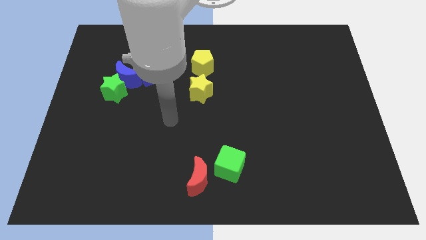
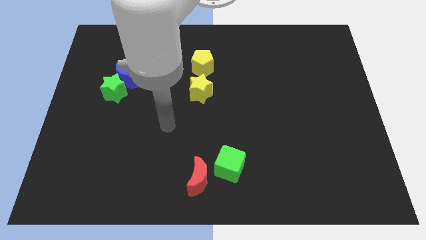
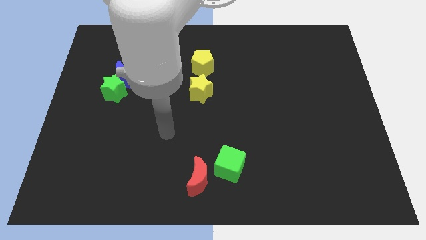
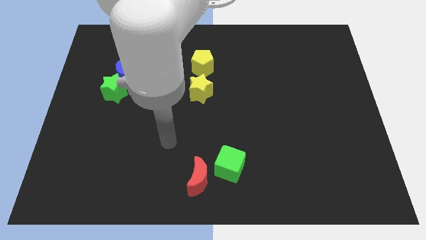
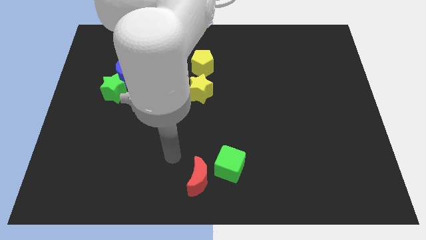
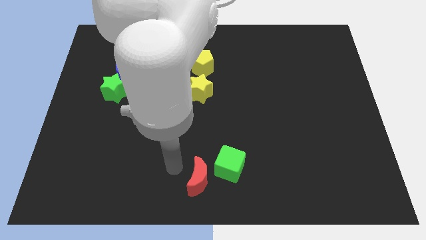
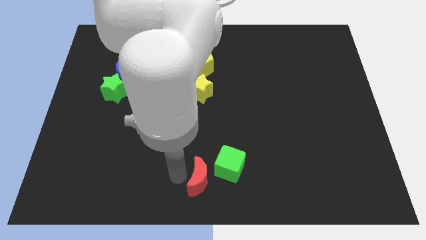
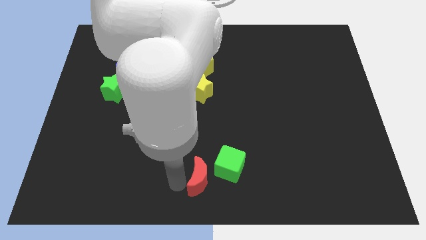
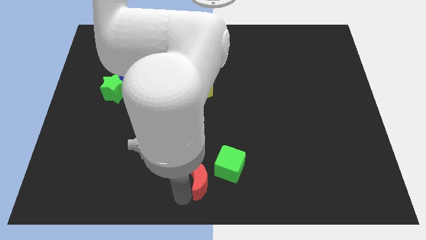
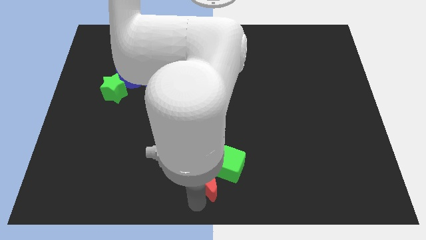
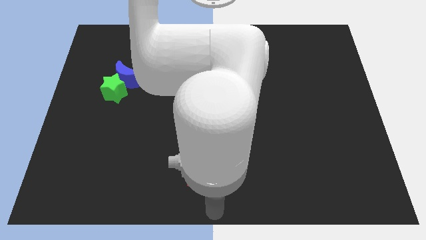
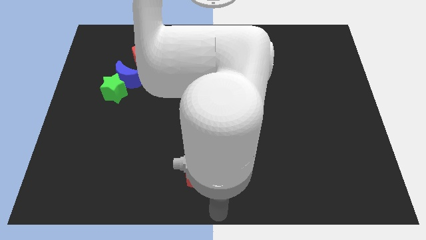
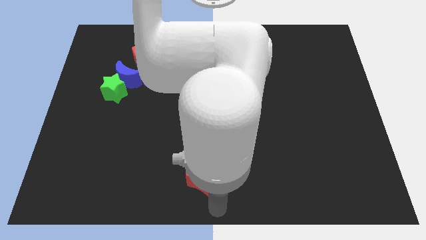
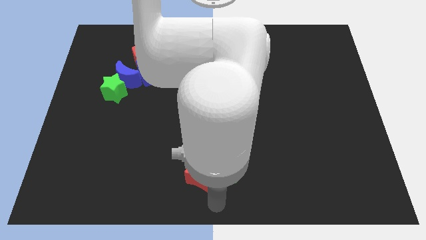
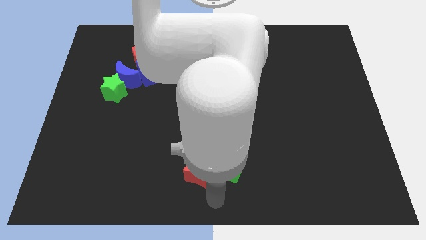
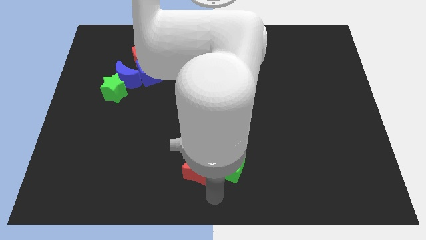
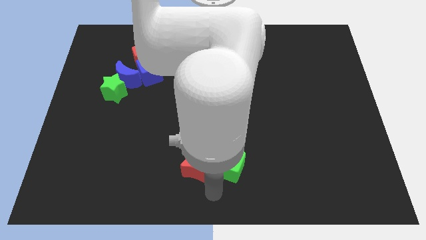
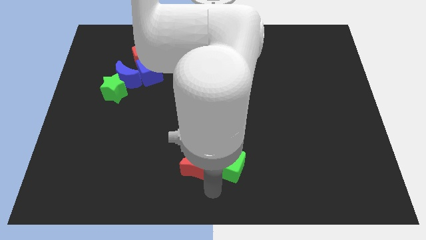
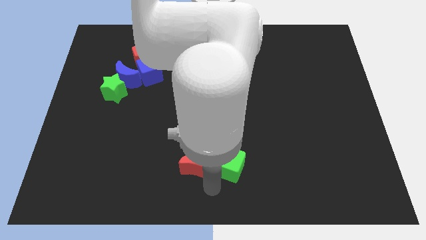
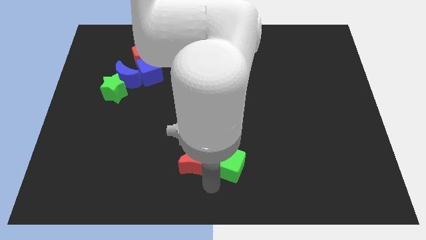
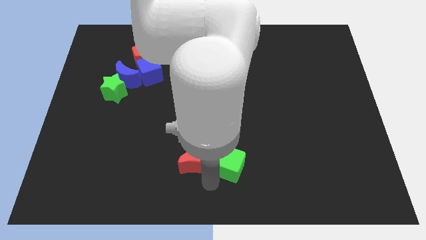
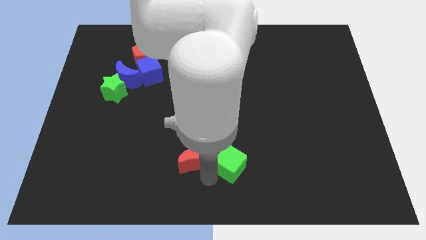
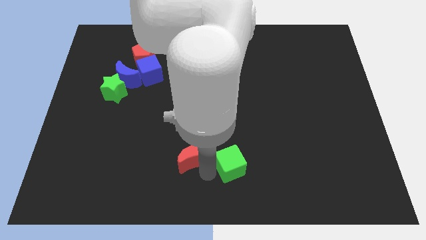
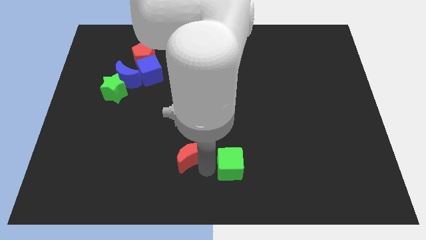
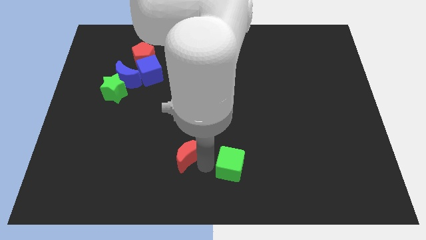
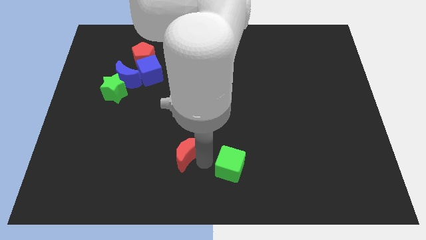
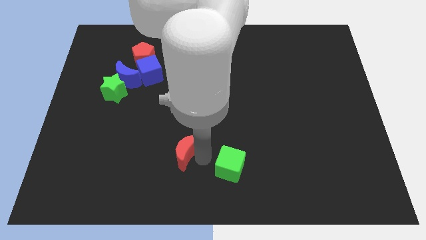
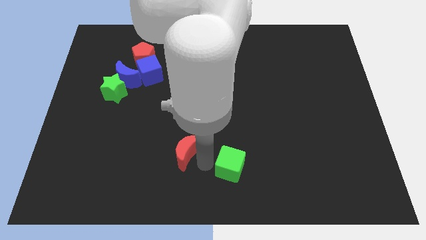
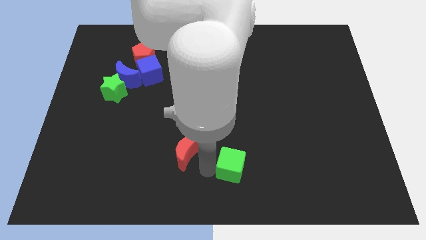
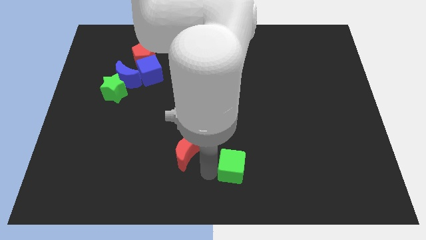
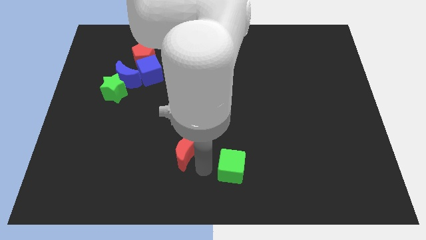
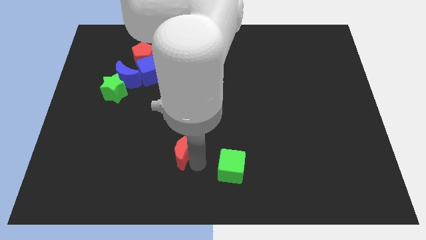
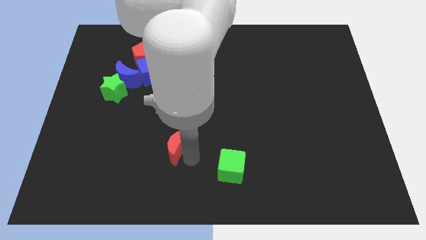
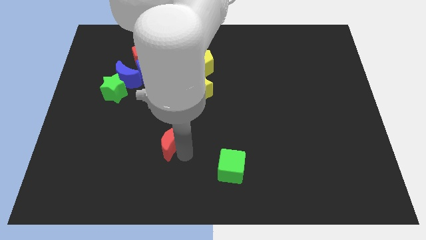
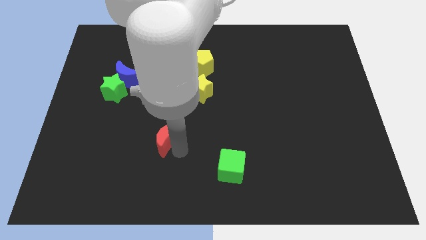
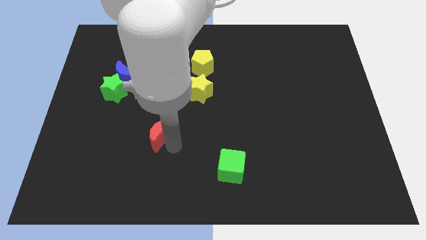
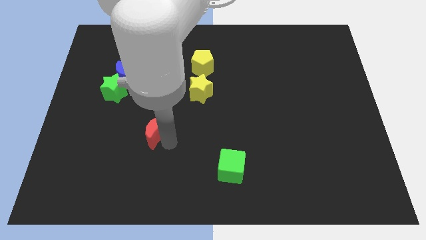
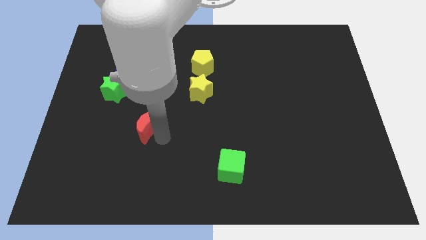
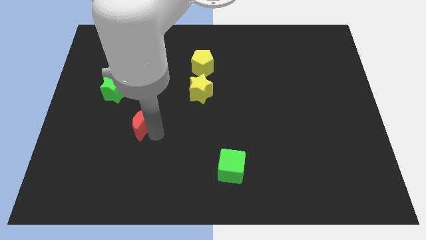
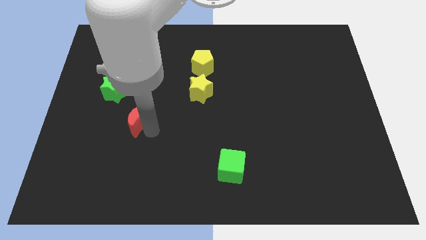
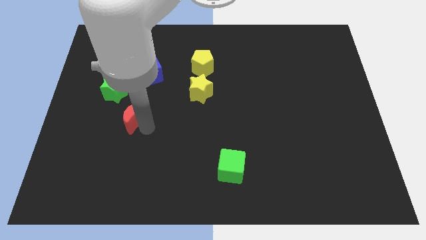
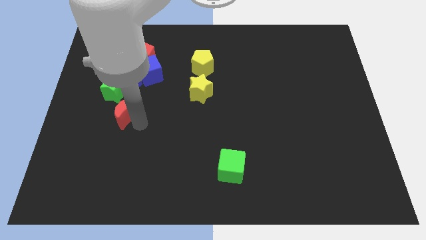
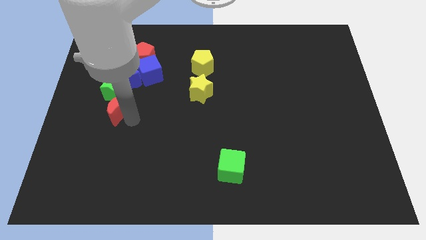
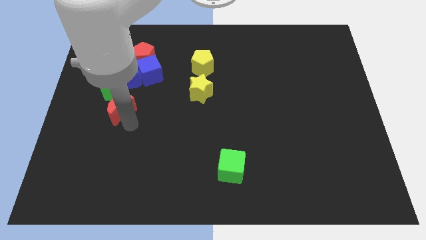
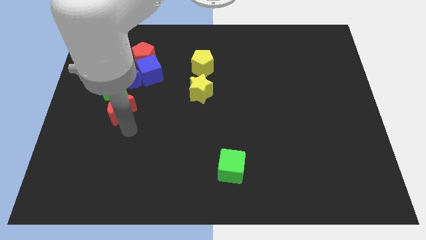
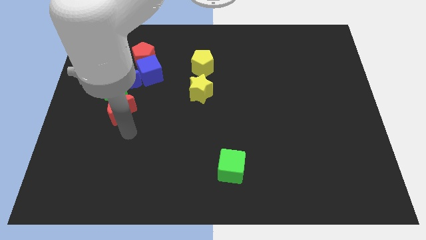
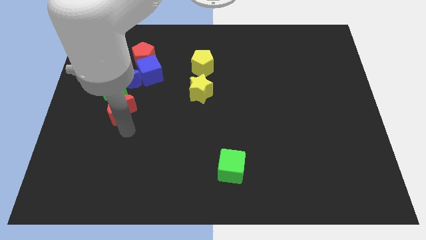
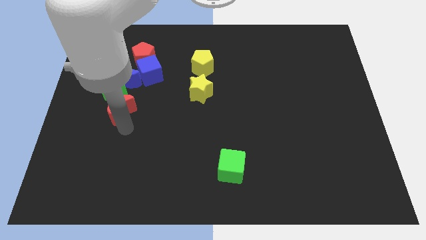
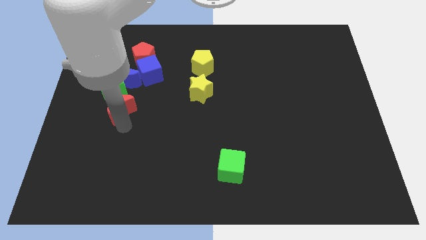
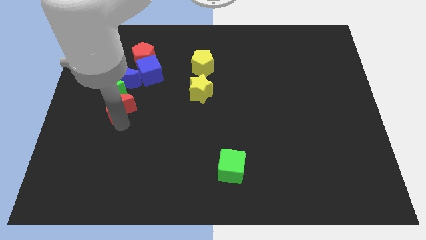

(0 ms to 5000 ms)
put the red moon close to the green star
